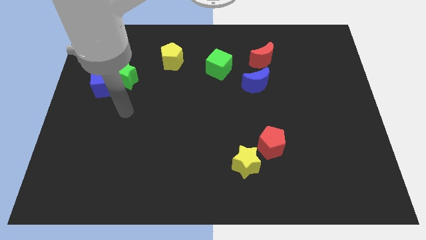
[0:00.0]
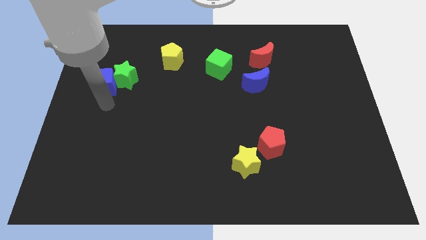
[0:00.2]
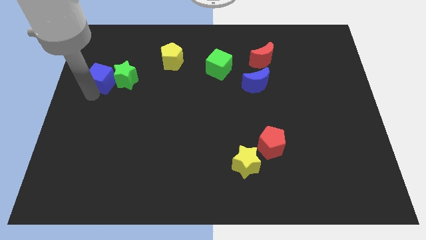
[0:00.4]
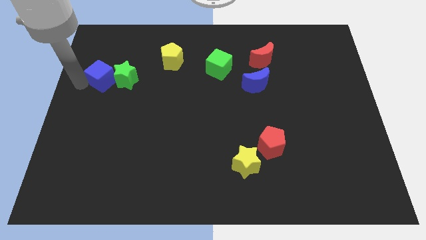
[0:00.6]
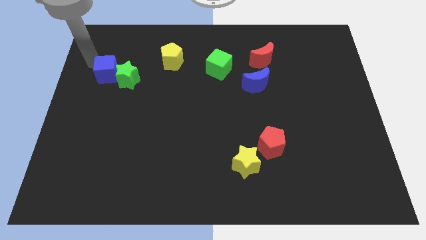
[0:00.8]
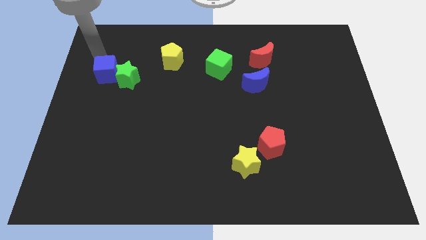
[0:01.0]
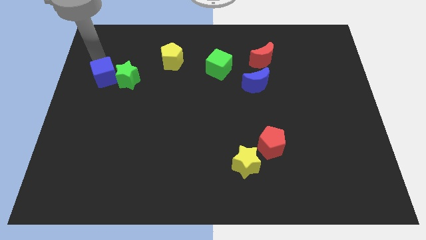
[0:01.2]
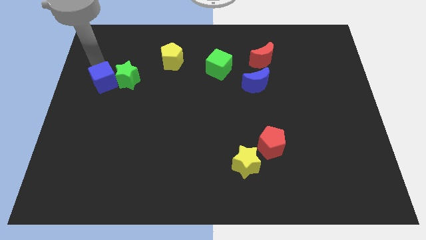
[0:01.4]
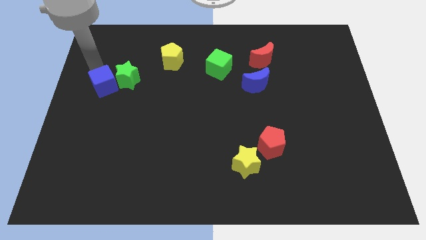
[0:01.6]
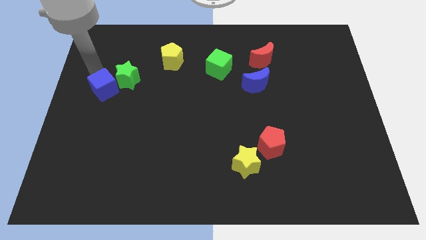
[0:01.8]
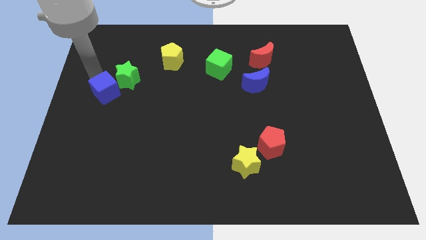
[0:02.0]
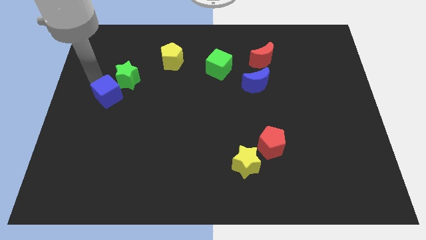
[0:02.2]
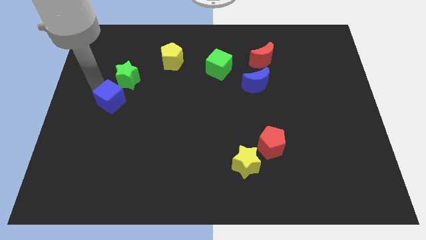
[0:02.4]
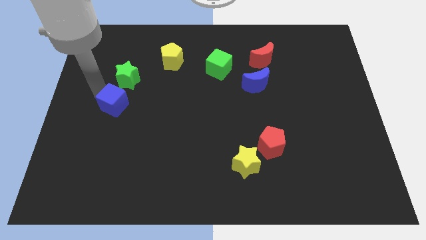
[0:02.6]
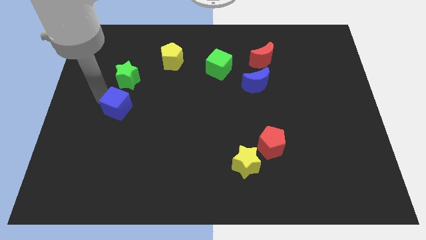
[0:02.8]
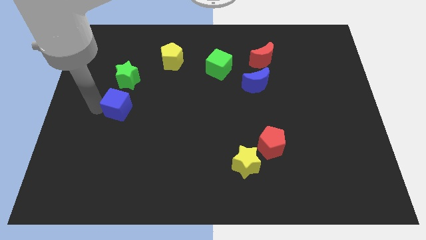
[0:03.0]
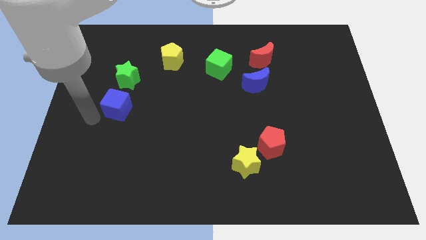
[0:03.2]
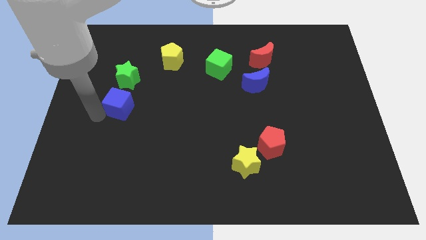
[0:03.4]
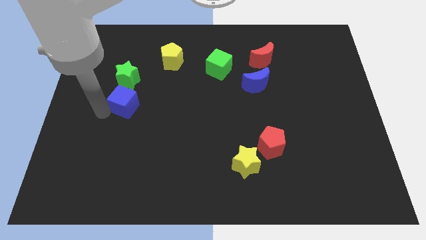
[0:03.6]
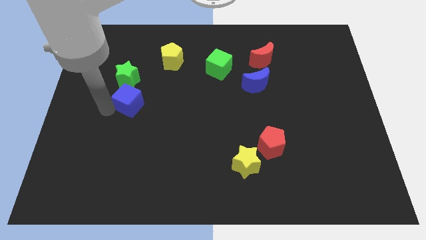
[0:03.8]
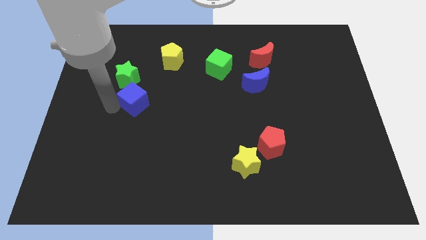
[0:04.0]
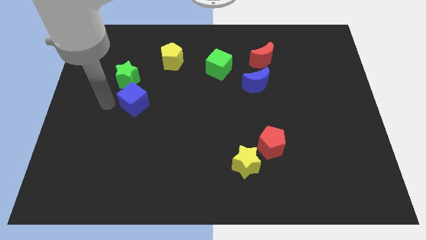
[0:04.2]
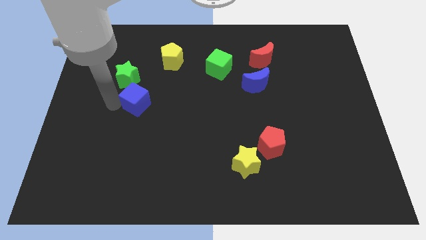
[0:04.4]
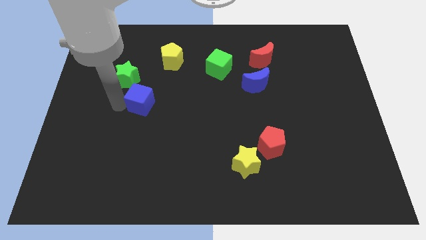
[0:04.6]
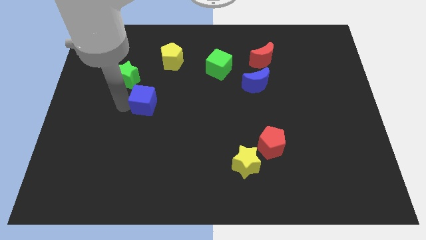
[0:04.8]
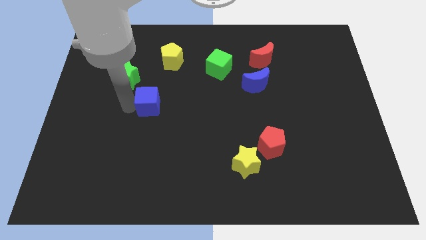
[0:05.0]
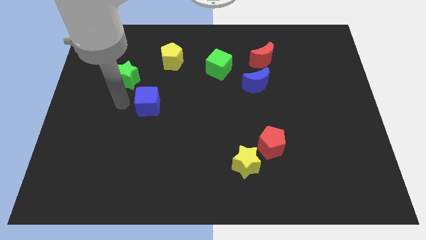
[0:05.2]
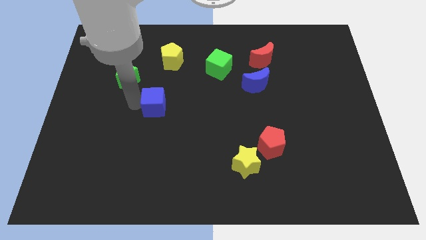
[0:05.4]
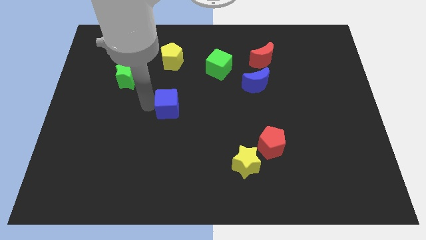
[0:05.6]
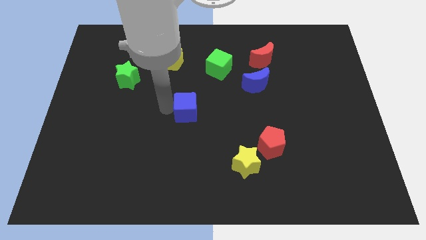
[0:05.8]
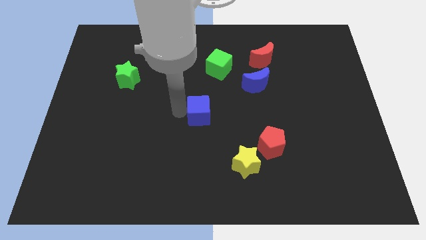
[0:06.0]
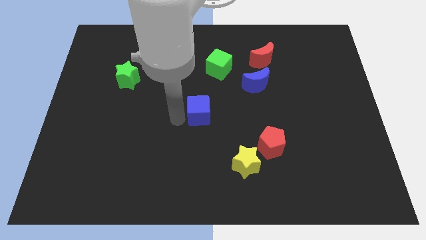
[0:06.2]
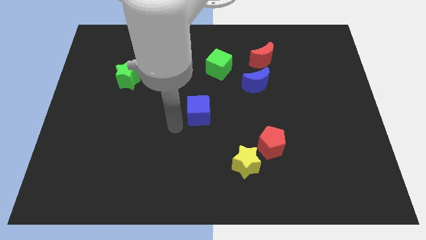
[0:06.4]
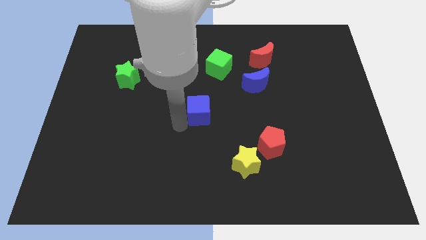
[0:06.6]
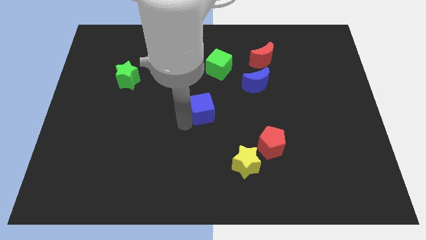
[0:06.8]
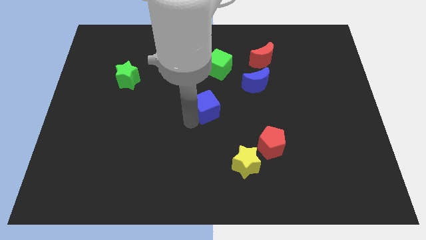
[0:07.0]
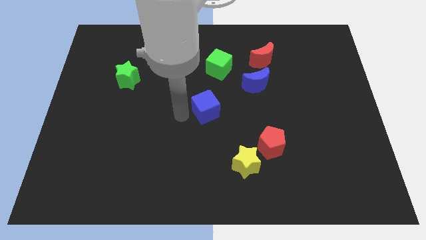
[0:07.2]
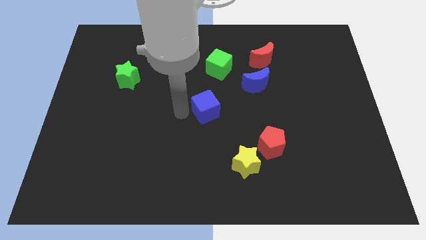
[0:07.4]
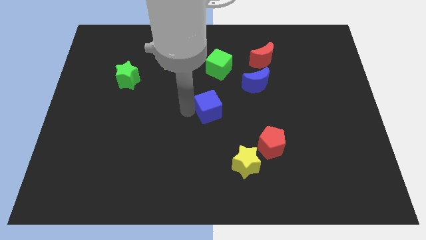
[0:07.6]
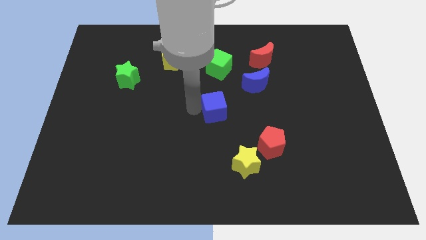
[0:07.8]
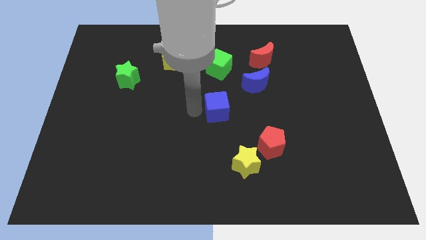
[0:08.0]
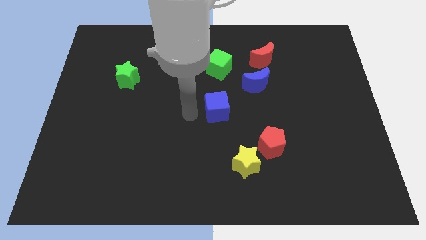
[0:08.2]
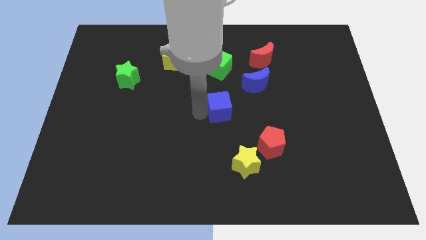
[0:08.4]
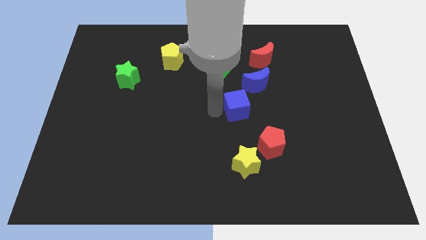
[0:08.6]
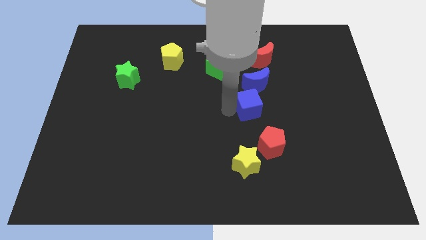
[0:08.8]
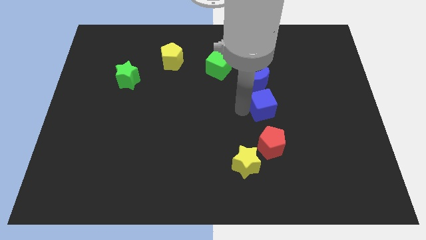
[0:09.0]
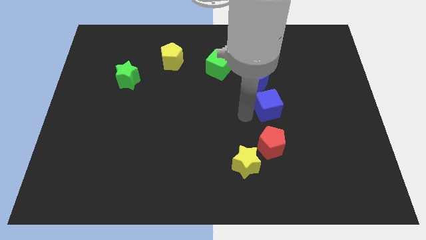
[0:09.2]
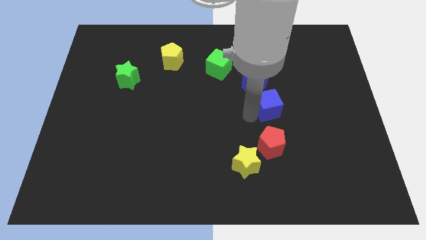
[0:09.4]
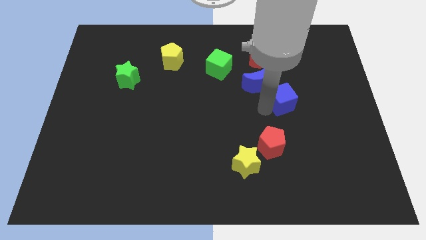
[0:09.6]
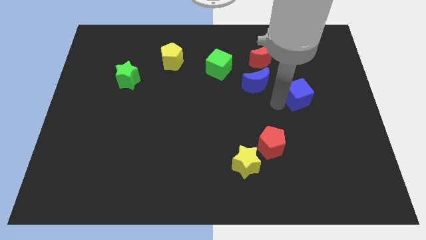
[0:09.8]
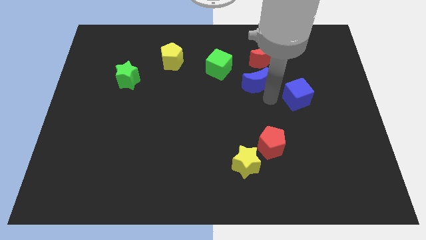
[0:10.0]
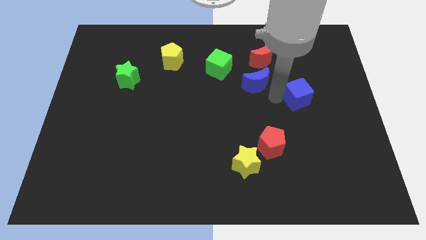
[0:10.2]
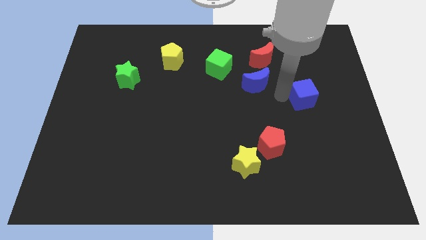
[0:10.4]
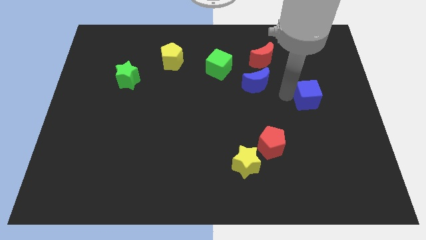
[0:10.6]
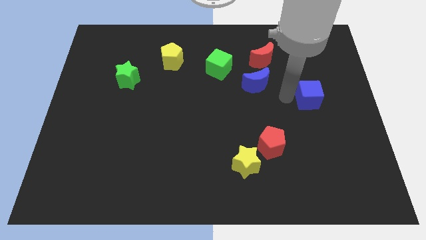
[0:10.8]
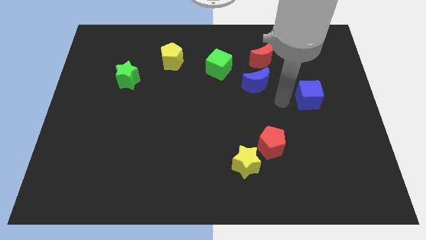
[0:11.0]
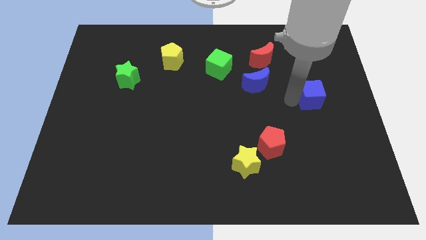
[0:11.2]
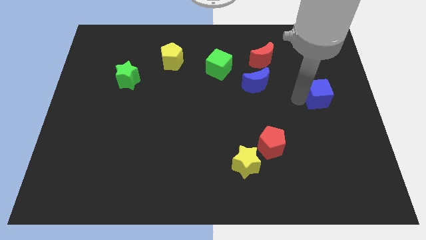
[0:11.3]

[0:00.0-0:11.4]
move the blue cube to the right side

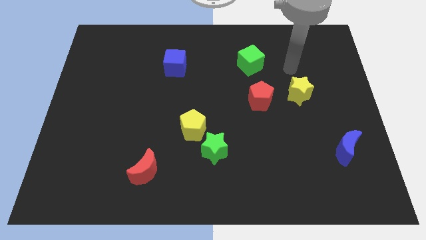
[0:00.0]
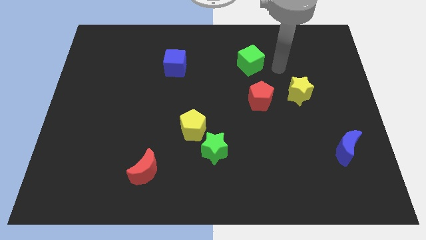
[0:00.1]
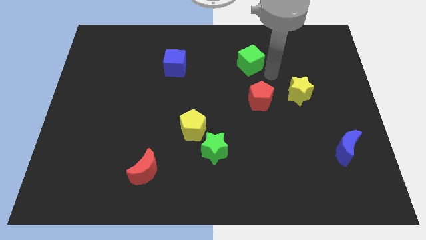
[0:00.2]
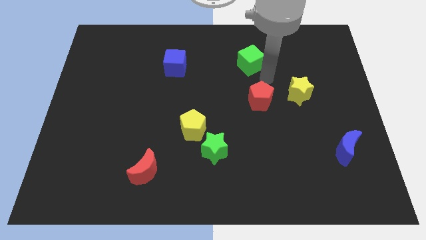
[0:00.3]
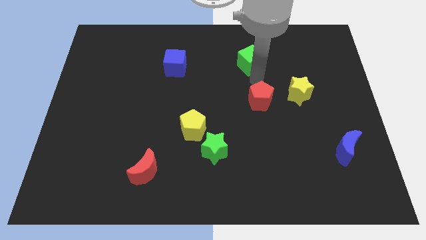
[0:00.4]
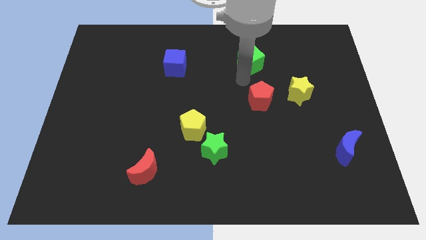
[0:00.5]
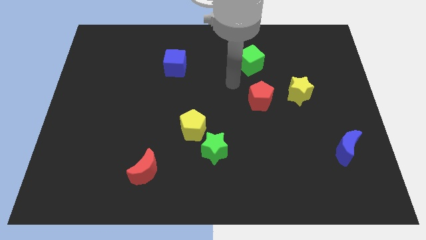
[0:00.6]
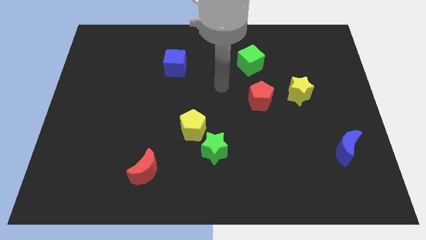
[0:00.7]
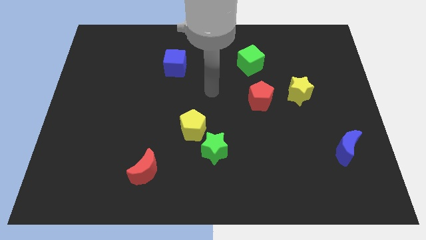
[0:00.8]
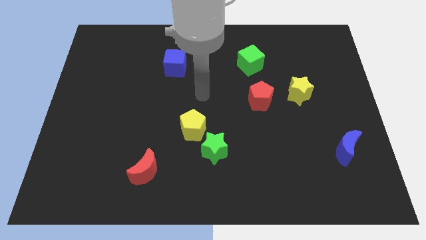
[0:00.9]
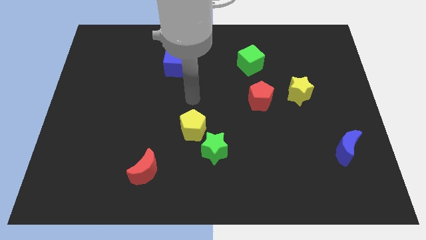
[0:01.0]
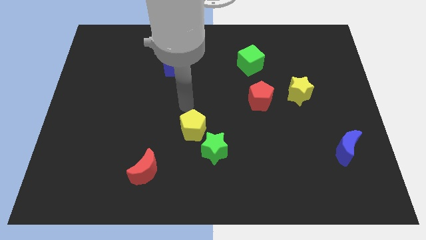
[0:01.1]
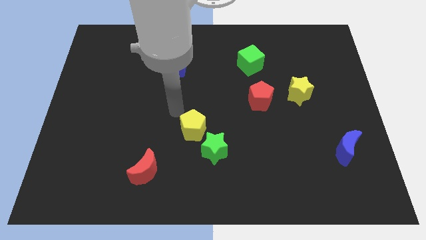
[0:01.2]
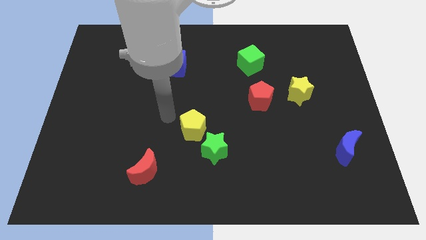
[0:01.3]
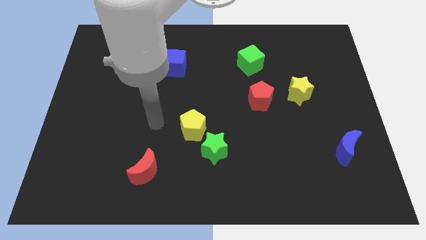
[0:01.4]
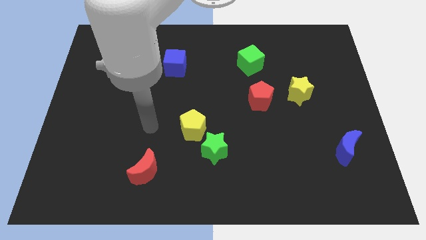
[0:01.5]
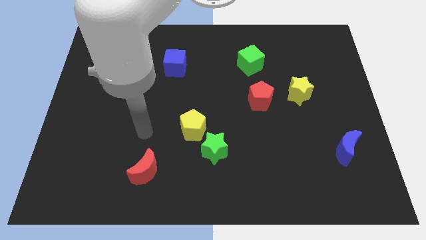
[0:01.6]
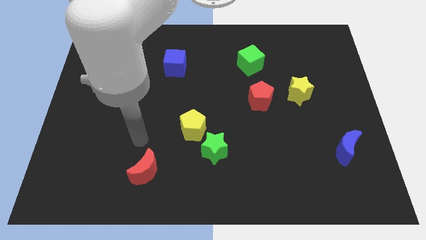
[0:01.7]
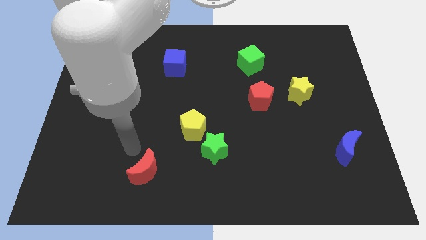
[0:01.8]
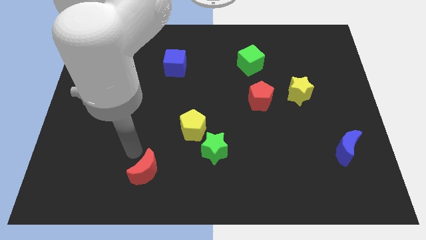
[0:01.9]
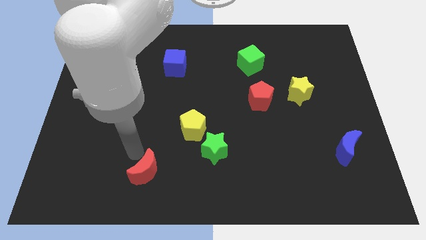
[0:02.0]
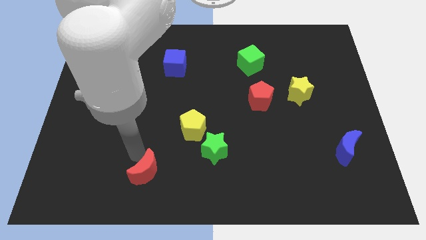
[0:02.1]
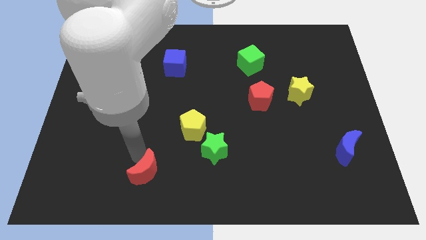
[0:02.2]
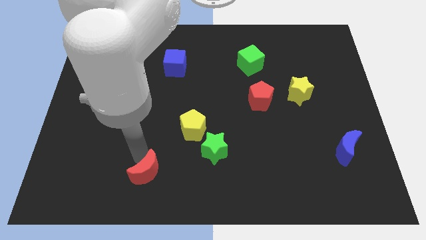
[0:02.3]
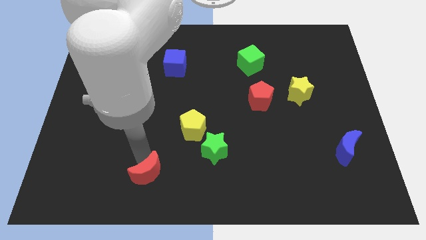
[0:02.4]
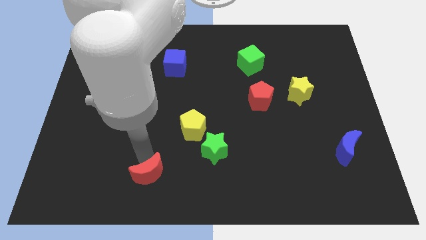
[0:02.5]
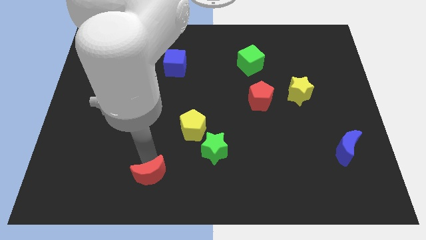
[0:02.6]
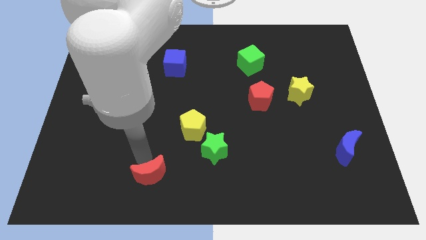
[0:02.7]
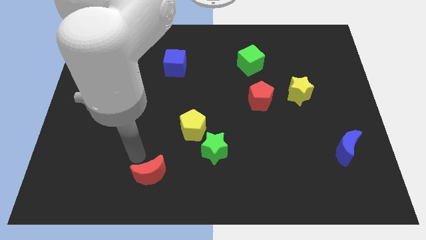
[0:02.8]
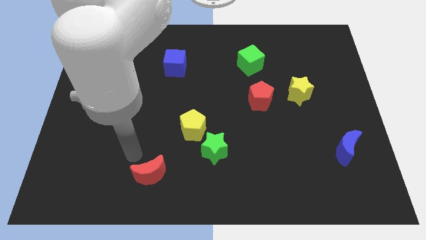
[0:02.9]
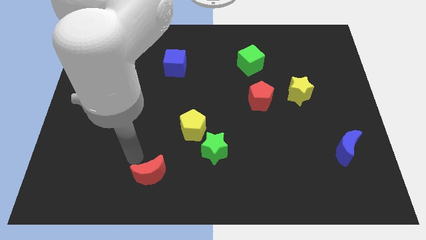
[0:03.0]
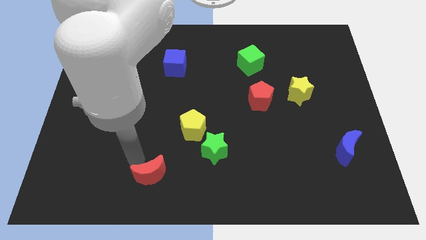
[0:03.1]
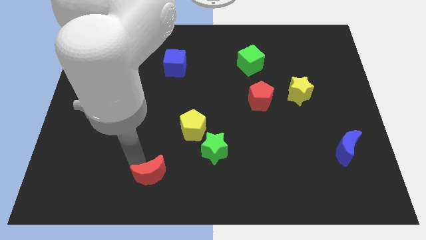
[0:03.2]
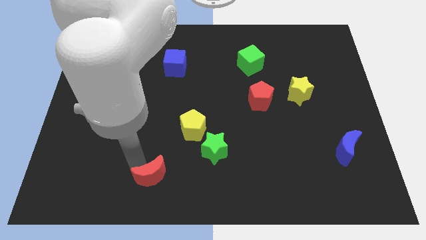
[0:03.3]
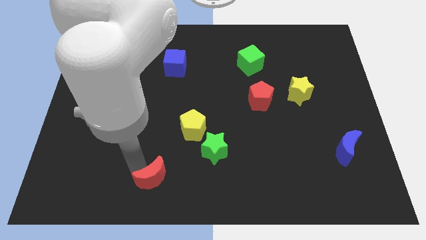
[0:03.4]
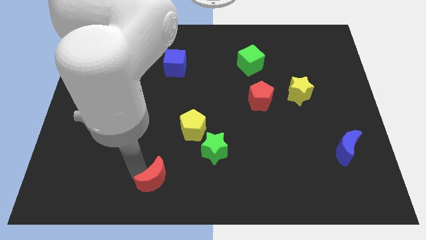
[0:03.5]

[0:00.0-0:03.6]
put the red moon to the bottom
